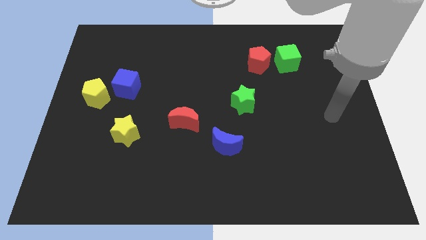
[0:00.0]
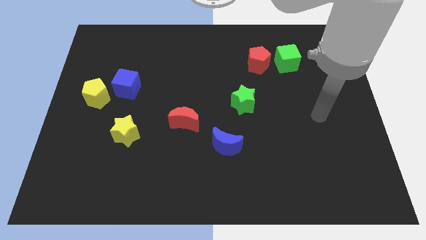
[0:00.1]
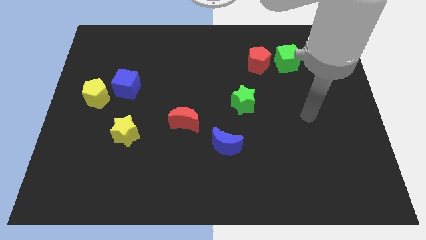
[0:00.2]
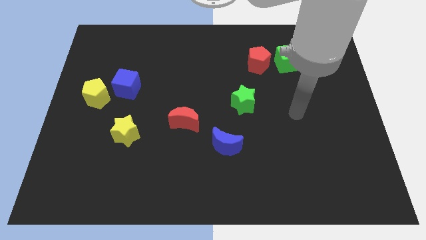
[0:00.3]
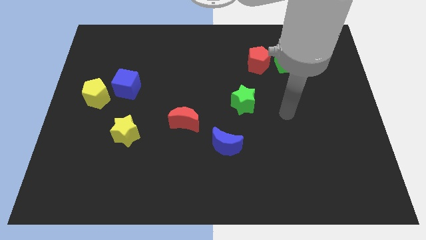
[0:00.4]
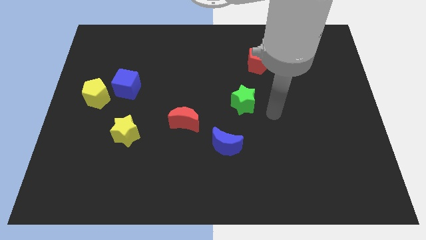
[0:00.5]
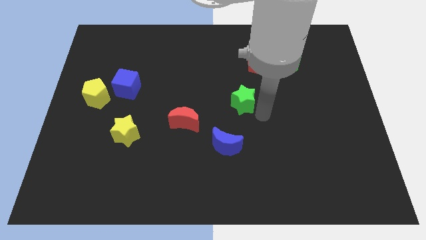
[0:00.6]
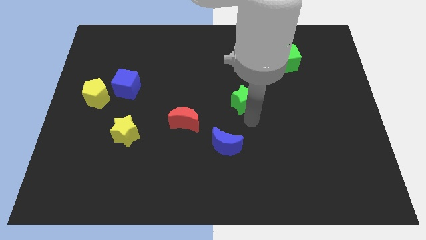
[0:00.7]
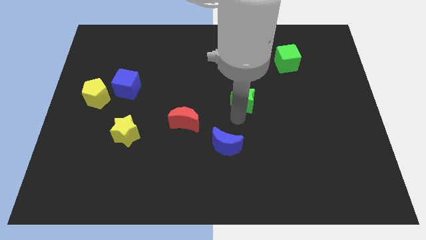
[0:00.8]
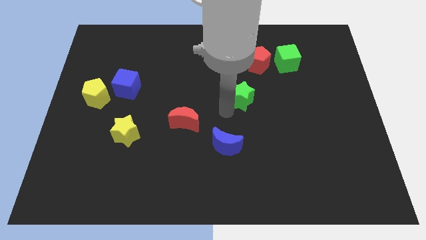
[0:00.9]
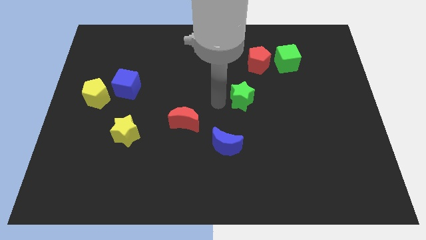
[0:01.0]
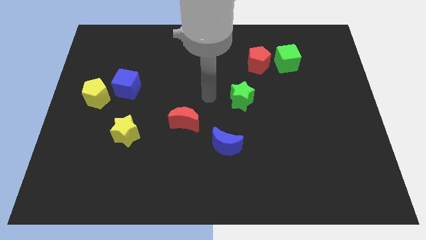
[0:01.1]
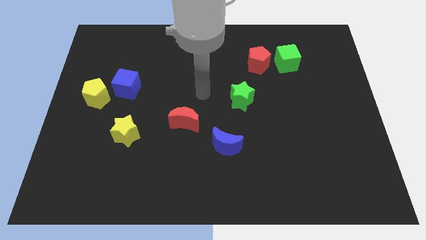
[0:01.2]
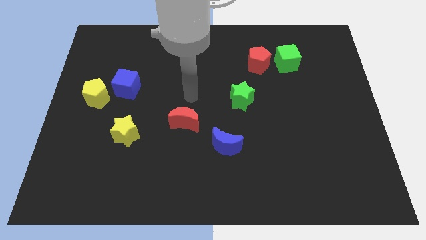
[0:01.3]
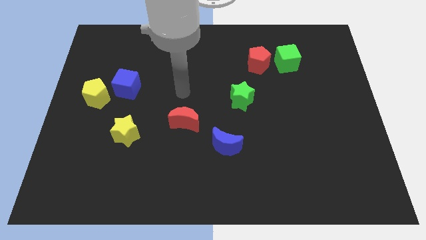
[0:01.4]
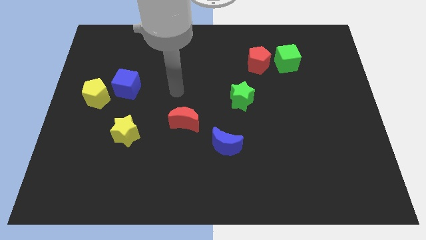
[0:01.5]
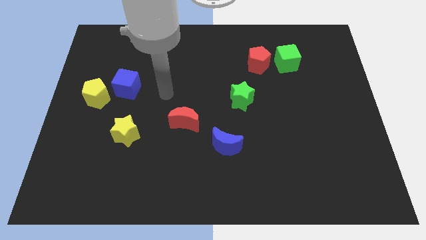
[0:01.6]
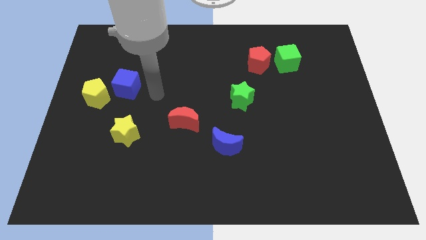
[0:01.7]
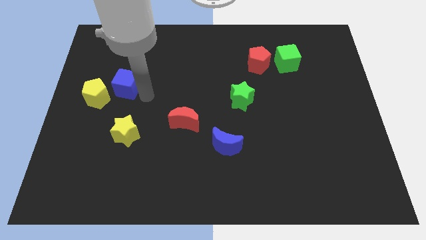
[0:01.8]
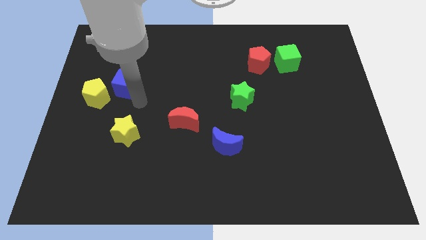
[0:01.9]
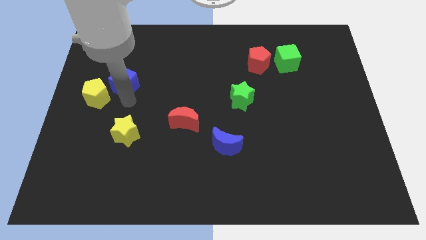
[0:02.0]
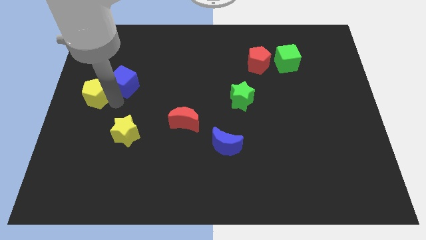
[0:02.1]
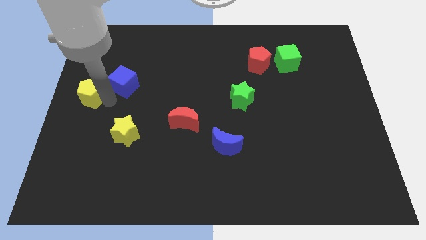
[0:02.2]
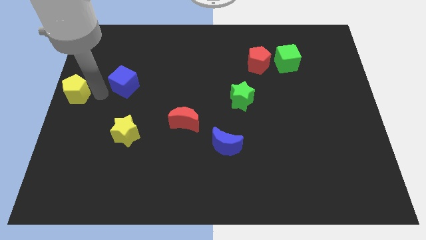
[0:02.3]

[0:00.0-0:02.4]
separate the blue cube from the yellow pentagon

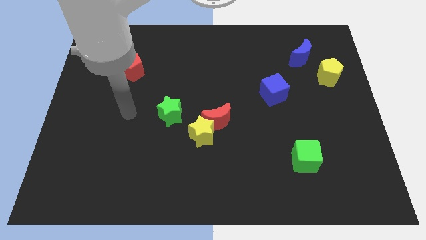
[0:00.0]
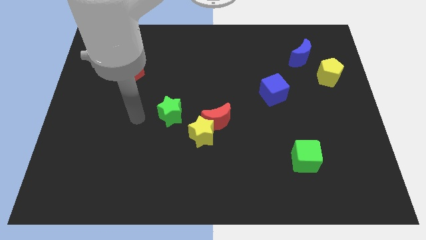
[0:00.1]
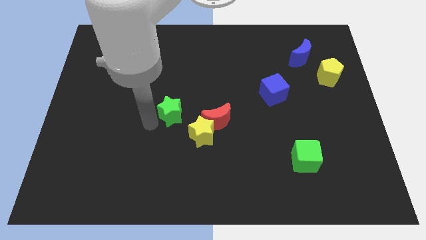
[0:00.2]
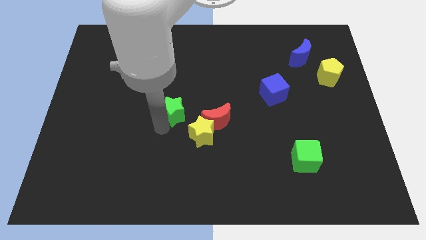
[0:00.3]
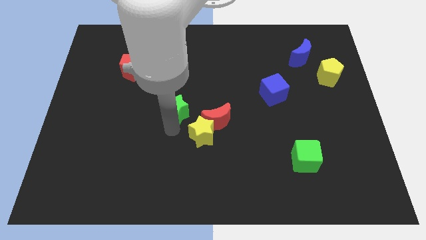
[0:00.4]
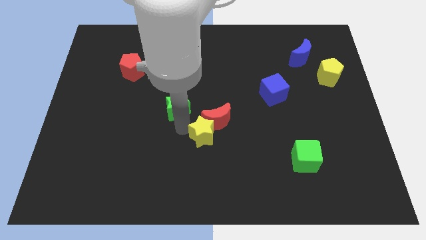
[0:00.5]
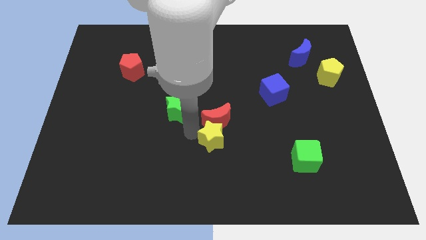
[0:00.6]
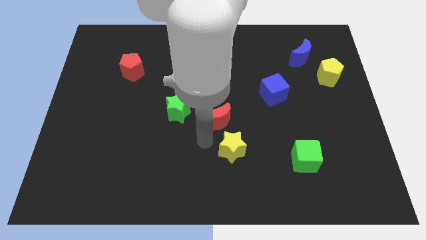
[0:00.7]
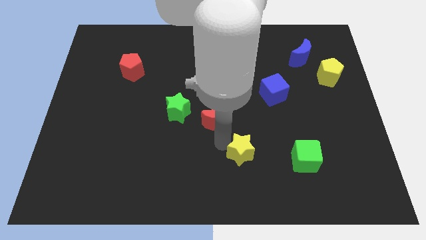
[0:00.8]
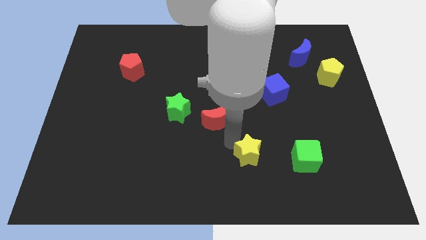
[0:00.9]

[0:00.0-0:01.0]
move the red moon away from the yellow star

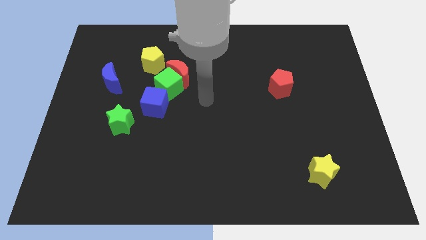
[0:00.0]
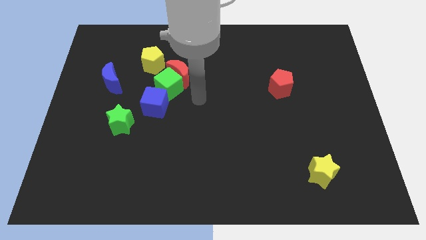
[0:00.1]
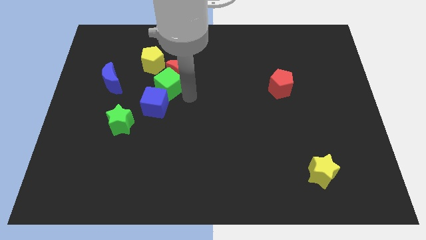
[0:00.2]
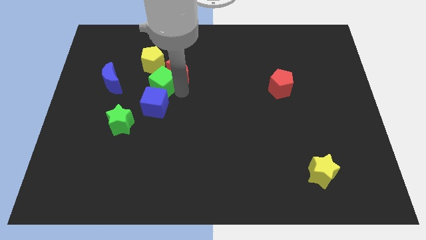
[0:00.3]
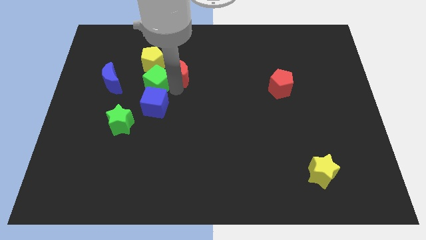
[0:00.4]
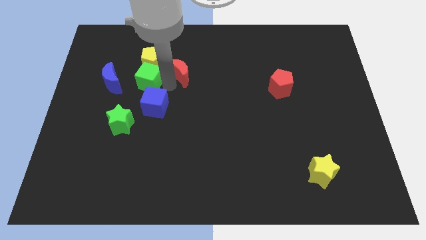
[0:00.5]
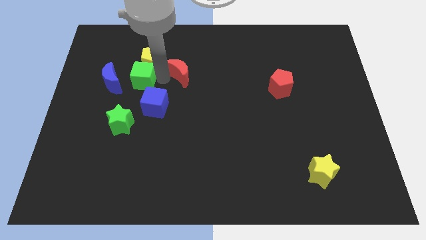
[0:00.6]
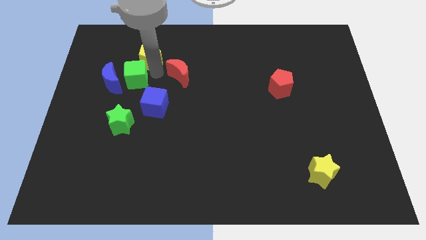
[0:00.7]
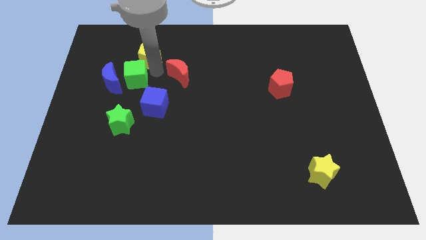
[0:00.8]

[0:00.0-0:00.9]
move the red moon away from the green cube and yellow pentagon

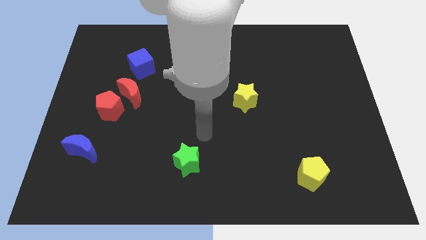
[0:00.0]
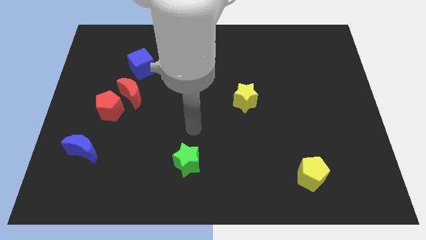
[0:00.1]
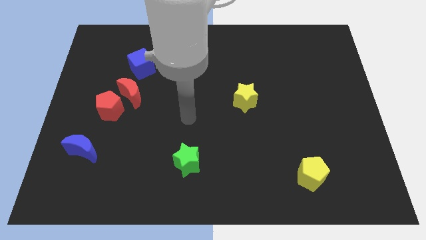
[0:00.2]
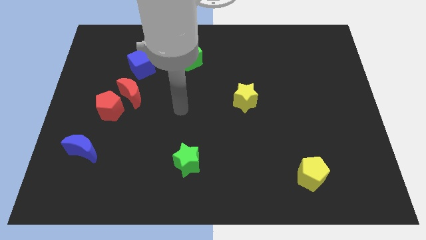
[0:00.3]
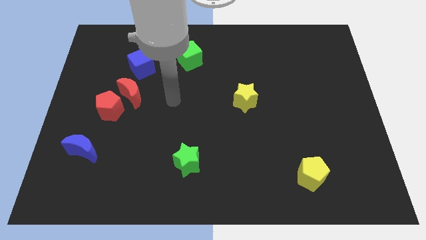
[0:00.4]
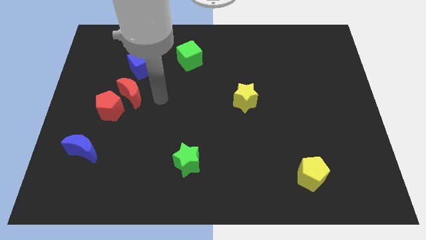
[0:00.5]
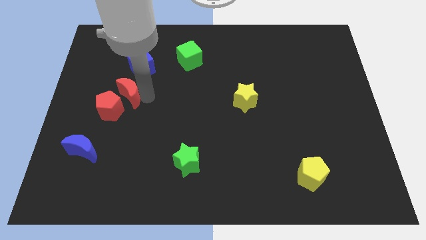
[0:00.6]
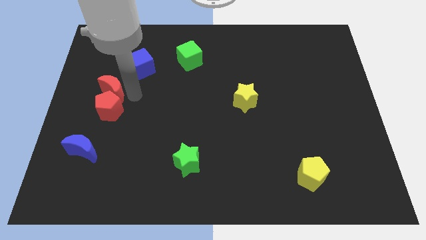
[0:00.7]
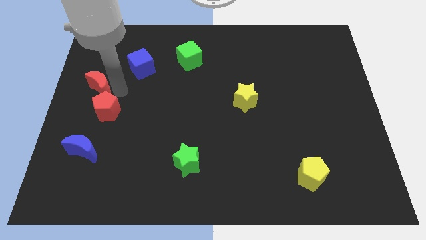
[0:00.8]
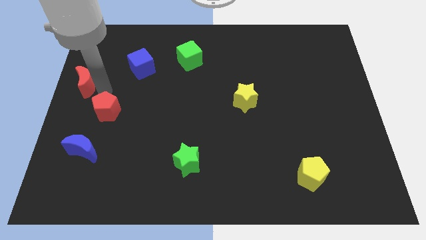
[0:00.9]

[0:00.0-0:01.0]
move the red pentagon away from the red moon

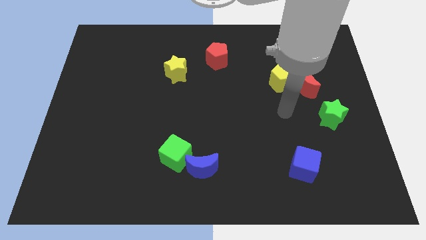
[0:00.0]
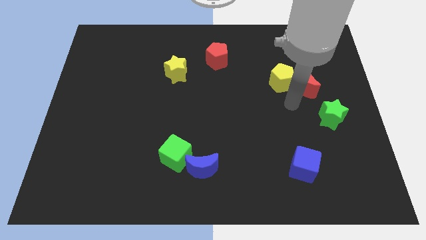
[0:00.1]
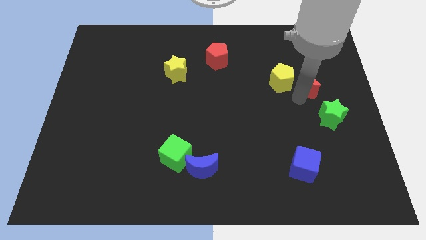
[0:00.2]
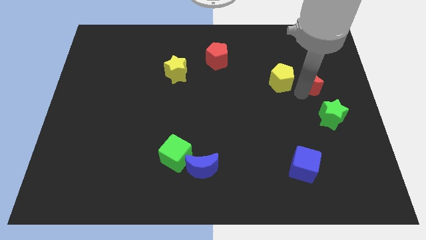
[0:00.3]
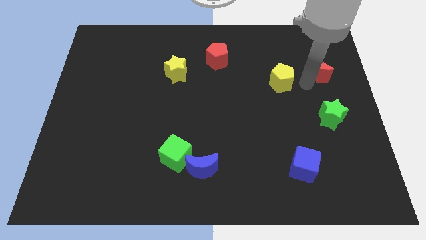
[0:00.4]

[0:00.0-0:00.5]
pull the yellow pentagon apart from the red moon

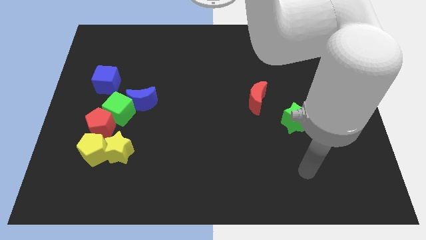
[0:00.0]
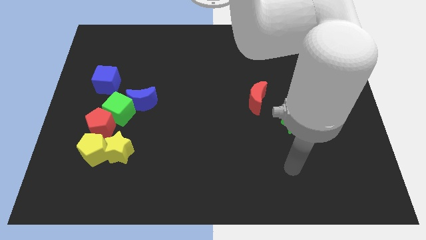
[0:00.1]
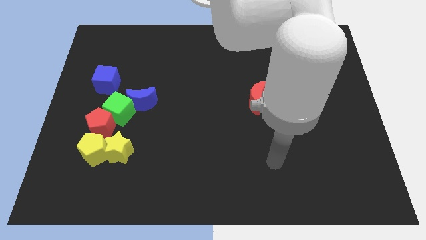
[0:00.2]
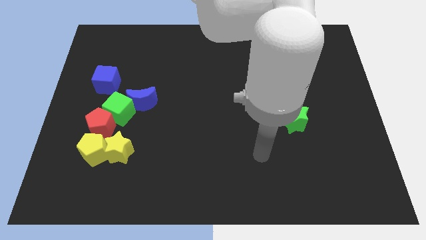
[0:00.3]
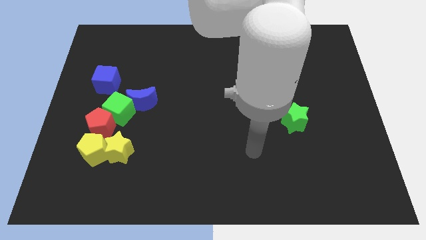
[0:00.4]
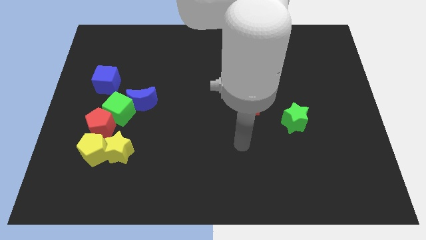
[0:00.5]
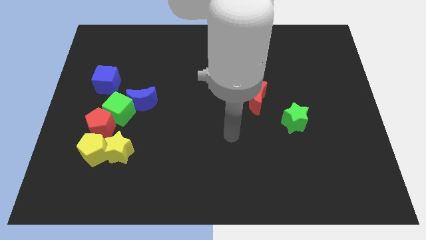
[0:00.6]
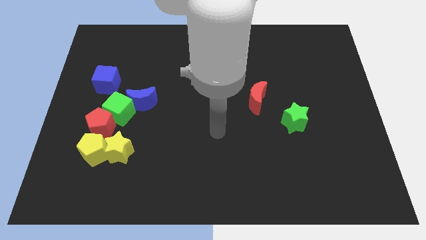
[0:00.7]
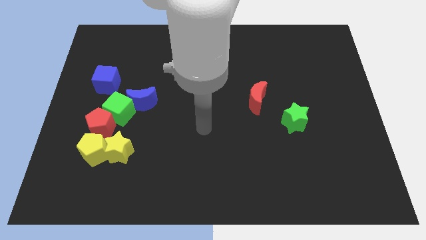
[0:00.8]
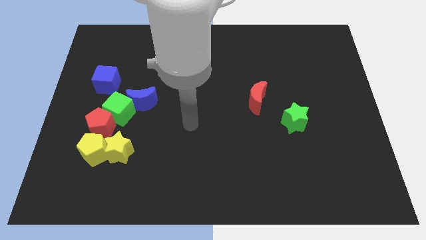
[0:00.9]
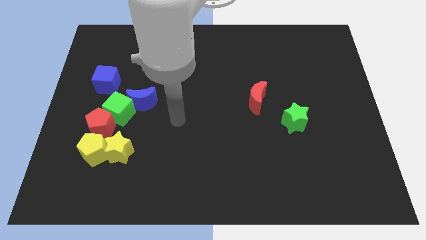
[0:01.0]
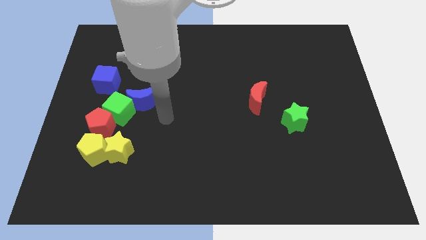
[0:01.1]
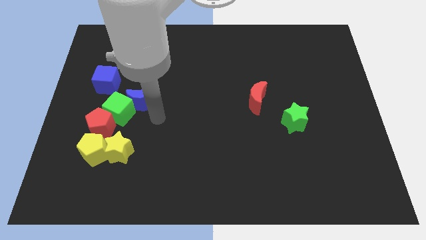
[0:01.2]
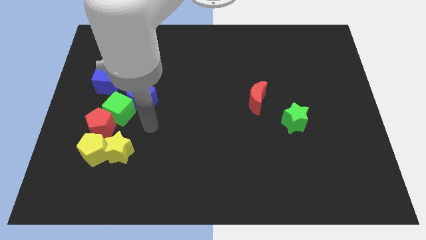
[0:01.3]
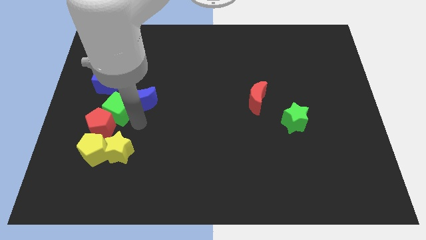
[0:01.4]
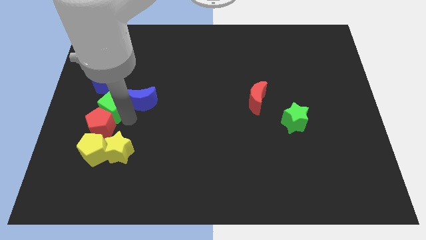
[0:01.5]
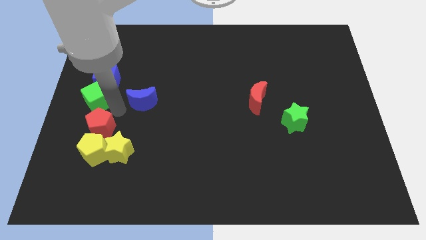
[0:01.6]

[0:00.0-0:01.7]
move the blue moon away from the green cube

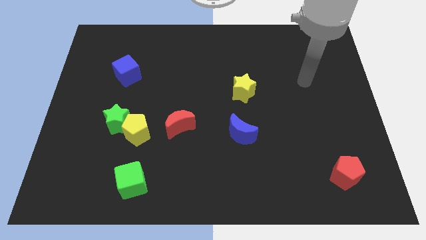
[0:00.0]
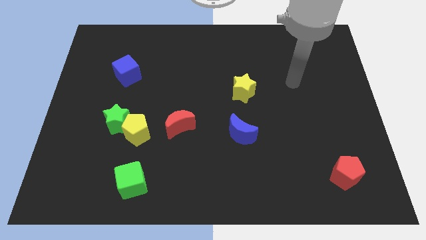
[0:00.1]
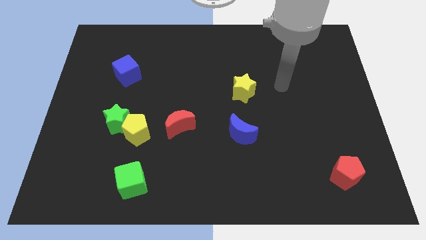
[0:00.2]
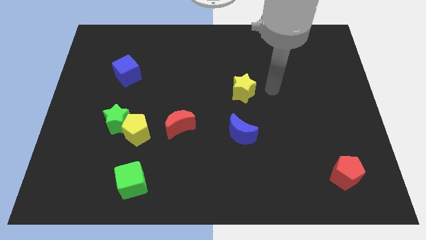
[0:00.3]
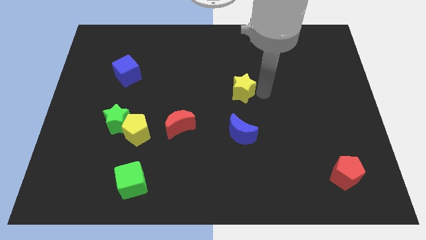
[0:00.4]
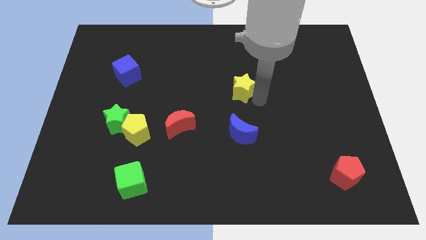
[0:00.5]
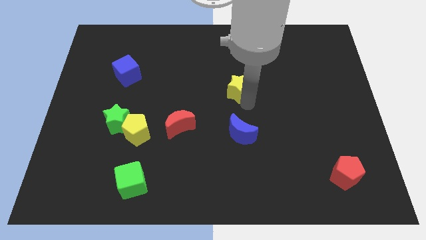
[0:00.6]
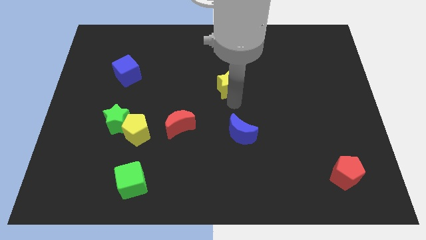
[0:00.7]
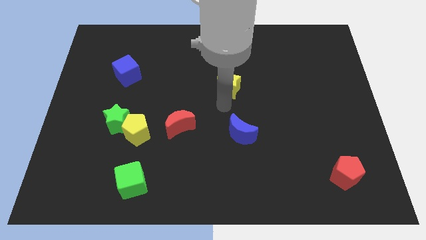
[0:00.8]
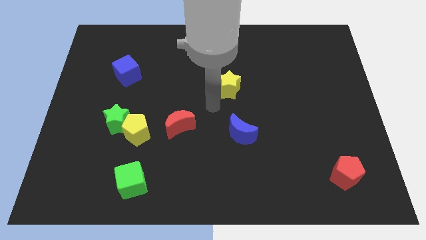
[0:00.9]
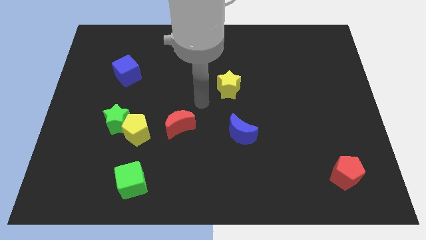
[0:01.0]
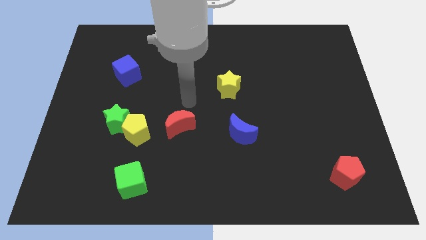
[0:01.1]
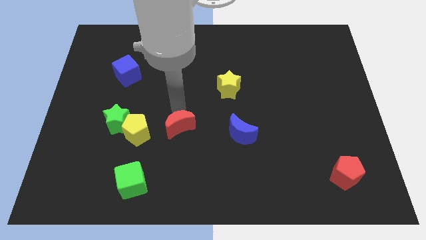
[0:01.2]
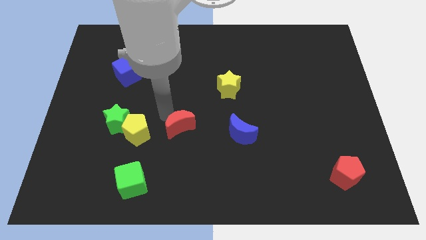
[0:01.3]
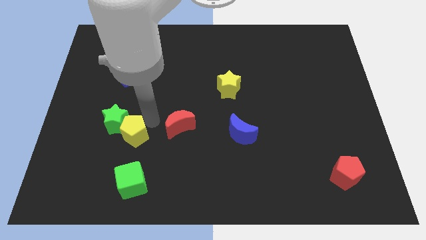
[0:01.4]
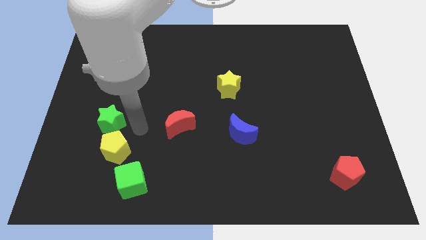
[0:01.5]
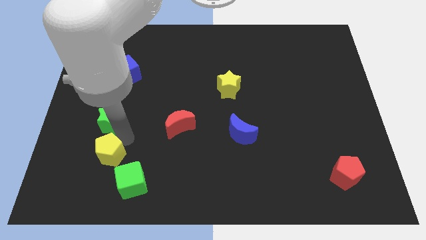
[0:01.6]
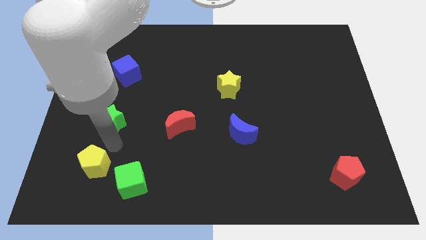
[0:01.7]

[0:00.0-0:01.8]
move the green star away from the yellow pentagon

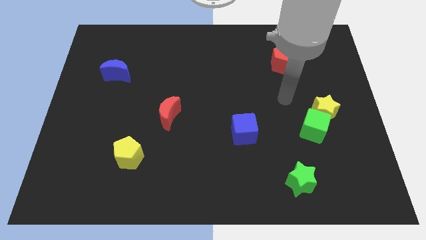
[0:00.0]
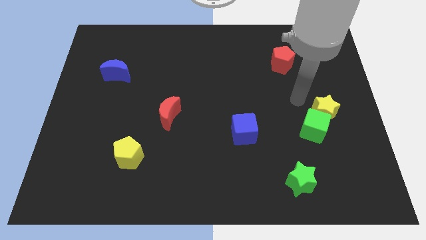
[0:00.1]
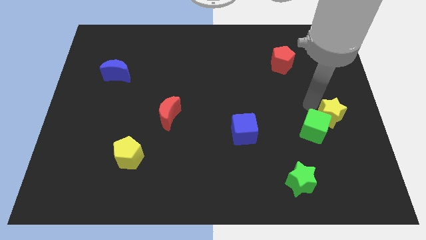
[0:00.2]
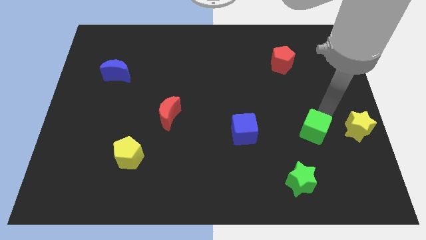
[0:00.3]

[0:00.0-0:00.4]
pull the green cube apart from the yellow star
